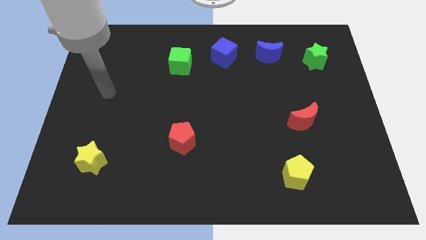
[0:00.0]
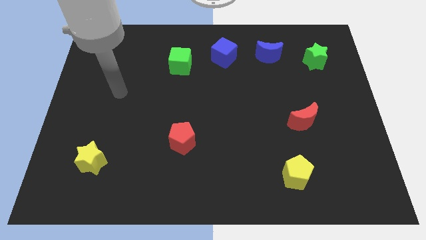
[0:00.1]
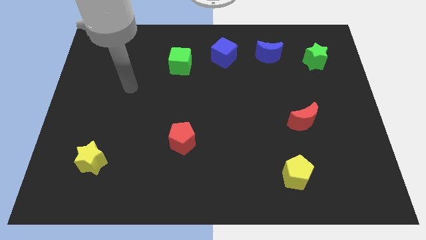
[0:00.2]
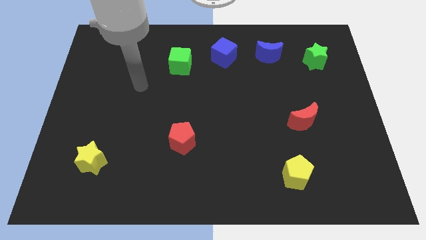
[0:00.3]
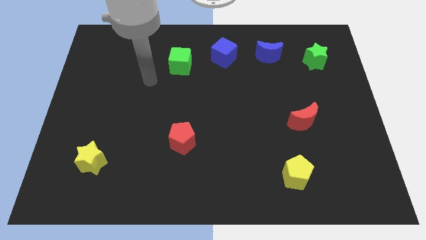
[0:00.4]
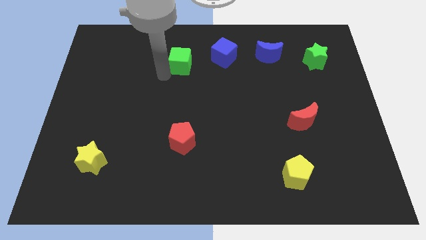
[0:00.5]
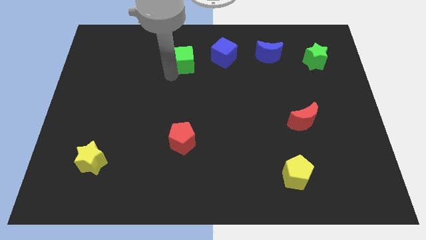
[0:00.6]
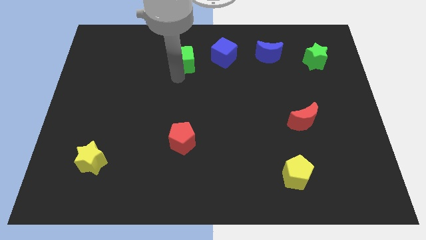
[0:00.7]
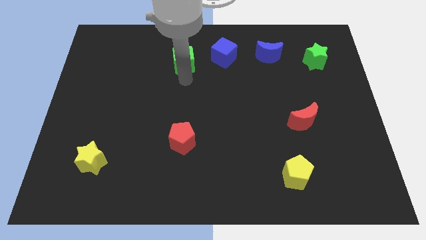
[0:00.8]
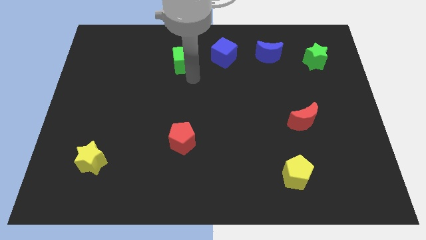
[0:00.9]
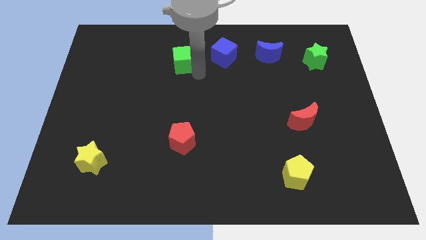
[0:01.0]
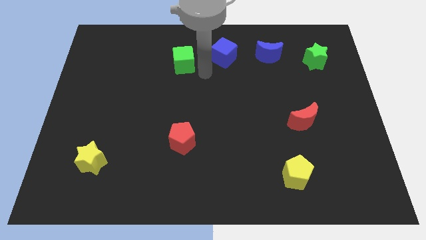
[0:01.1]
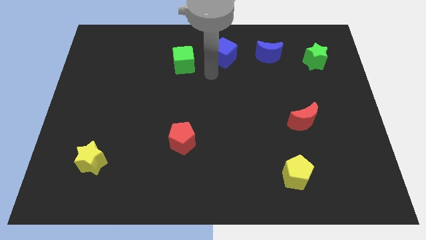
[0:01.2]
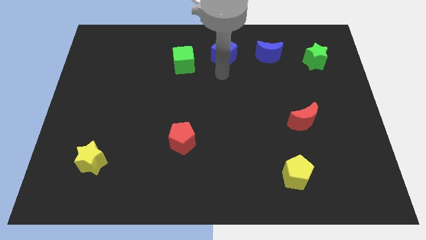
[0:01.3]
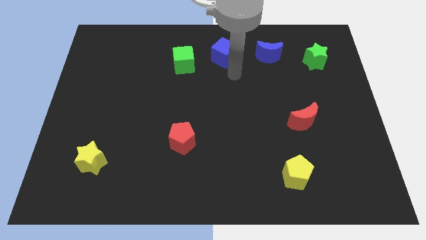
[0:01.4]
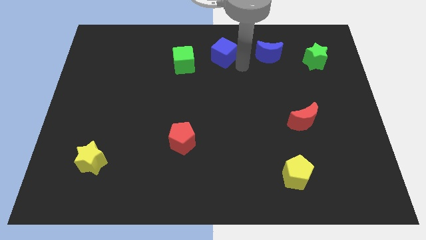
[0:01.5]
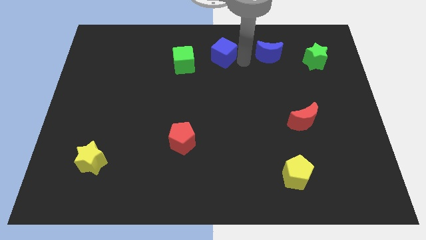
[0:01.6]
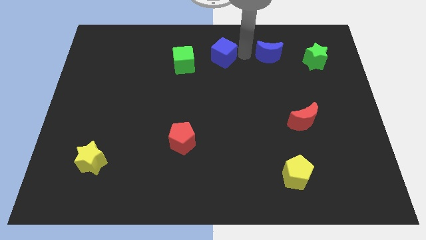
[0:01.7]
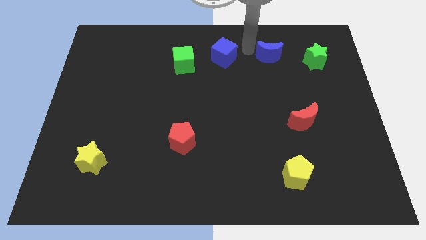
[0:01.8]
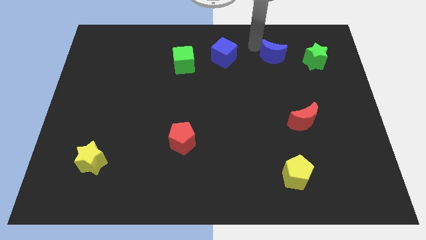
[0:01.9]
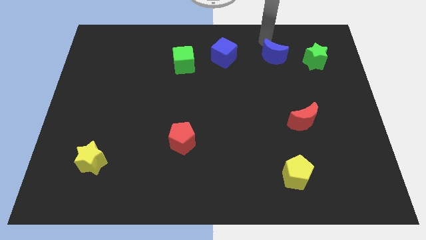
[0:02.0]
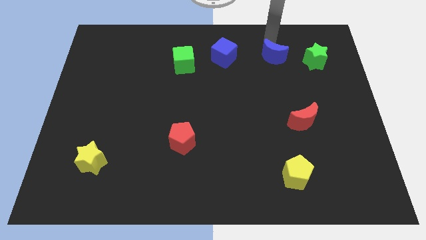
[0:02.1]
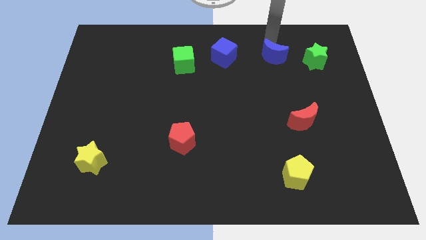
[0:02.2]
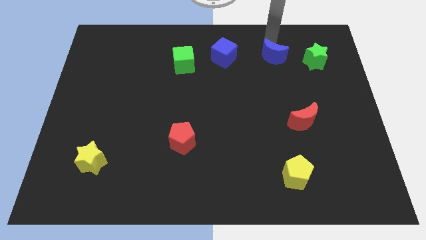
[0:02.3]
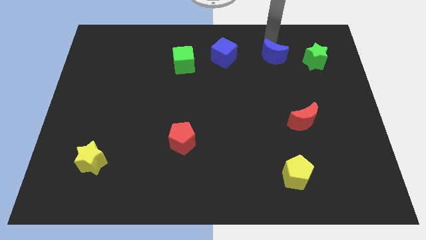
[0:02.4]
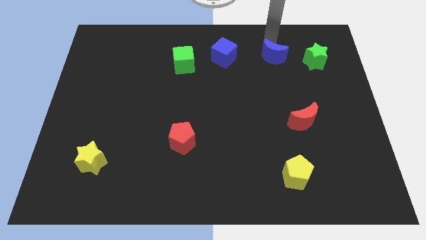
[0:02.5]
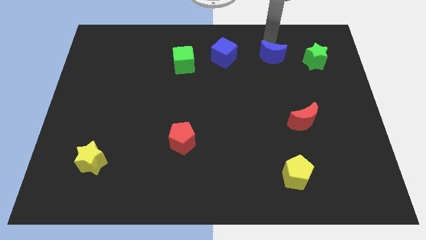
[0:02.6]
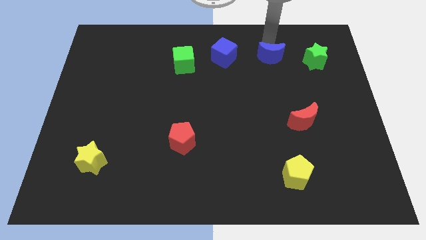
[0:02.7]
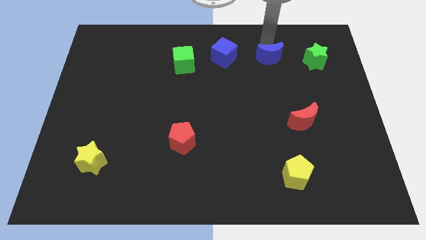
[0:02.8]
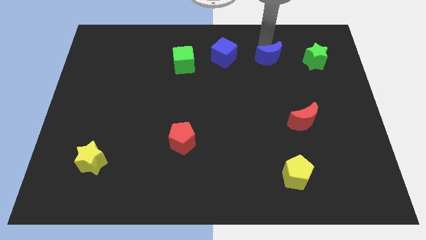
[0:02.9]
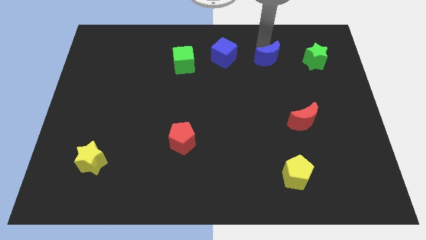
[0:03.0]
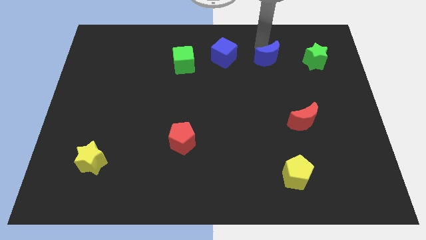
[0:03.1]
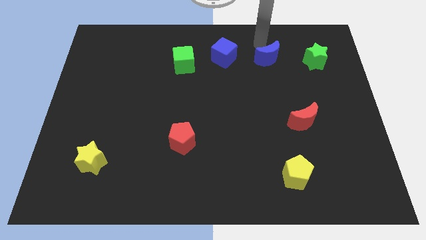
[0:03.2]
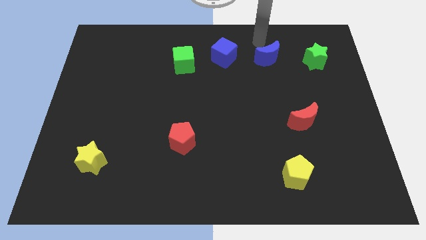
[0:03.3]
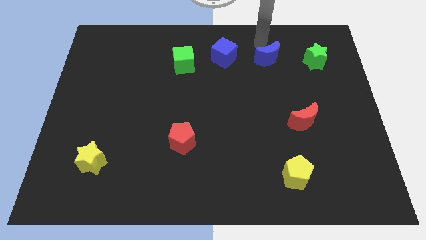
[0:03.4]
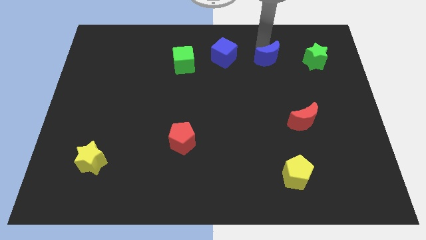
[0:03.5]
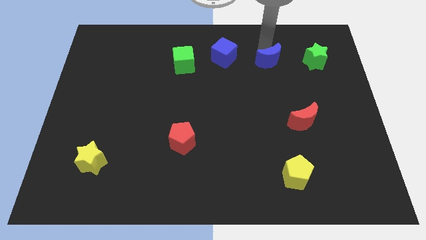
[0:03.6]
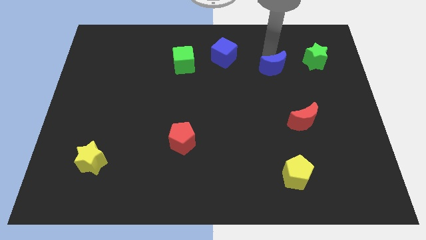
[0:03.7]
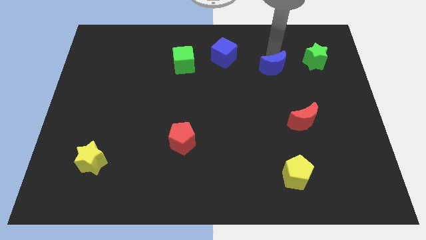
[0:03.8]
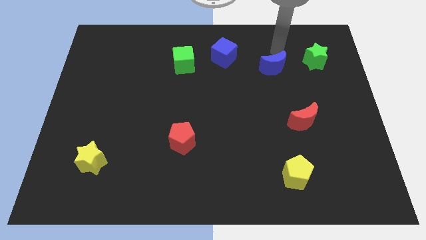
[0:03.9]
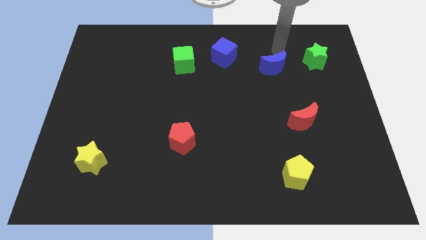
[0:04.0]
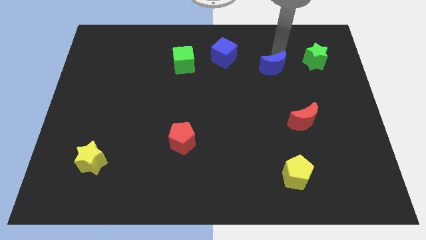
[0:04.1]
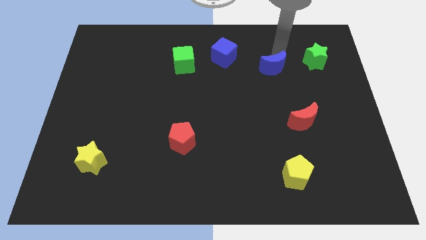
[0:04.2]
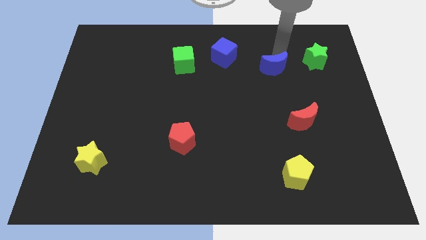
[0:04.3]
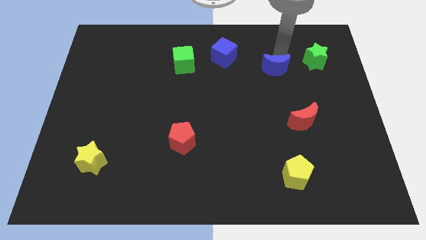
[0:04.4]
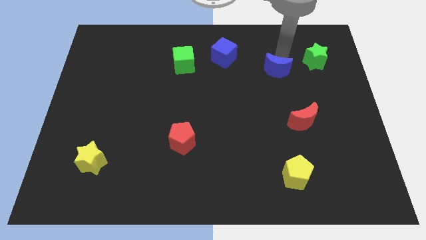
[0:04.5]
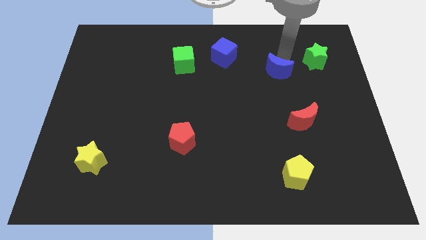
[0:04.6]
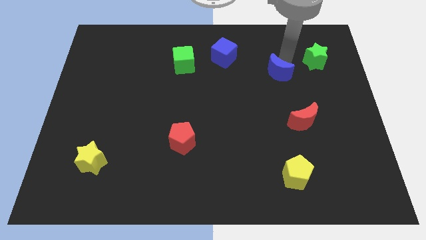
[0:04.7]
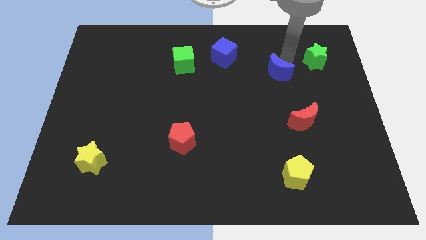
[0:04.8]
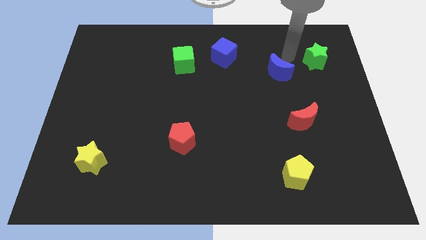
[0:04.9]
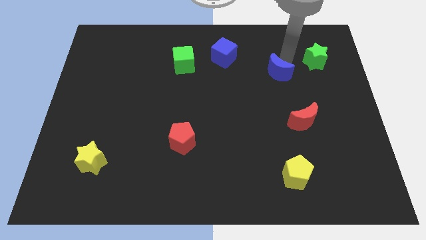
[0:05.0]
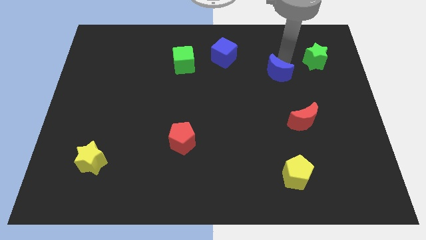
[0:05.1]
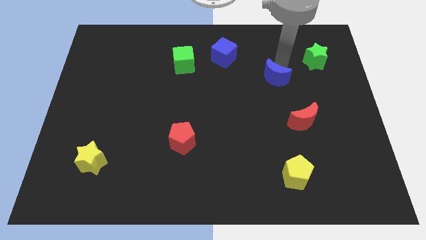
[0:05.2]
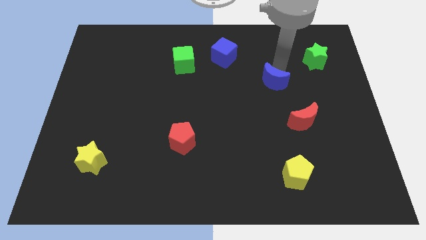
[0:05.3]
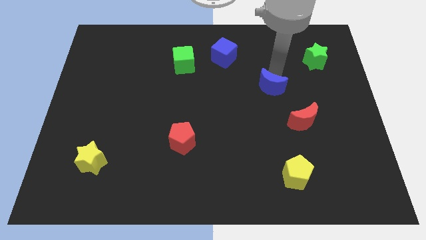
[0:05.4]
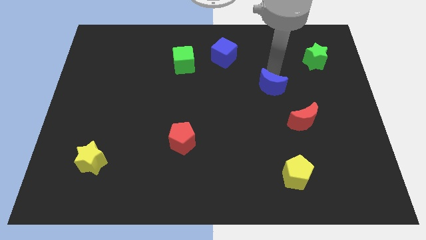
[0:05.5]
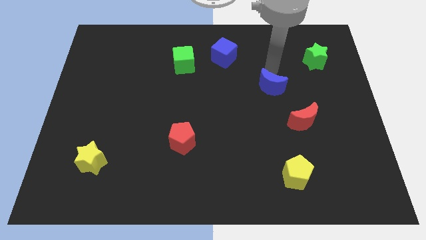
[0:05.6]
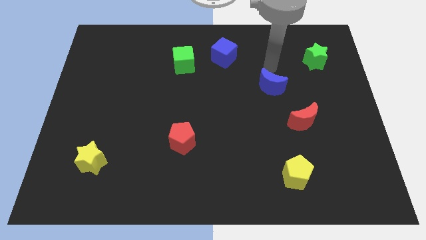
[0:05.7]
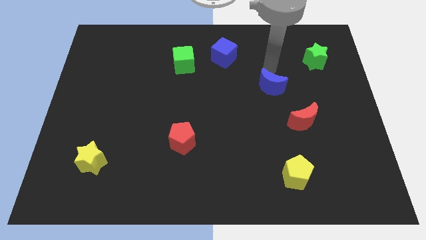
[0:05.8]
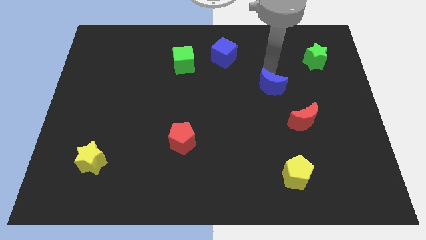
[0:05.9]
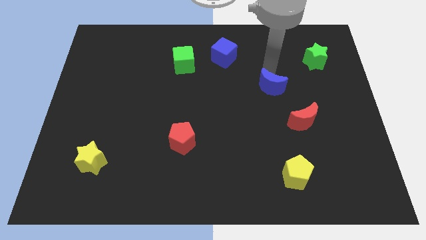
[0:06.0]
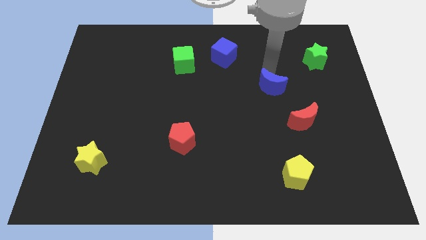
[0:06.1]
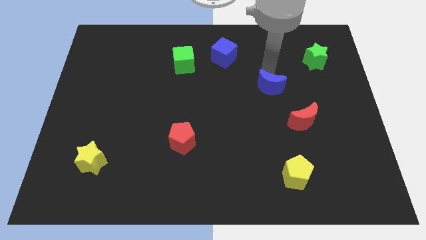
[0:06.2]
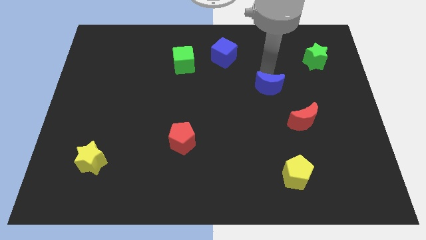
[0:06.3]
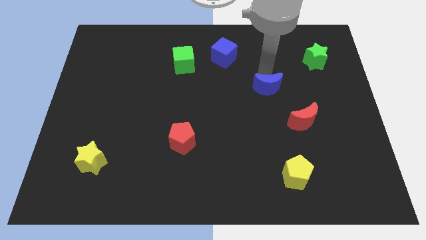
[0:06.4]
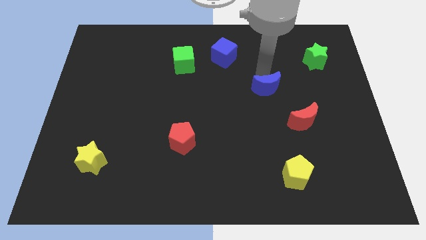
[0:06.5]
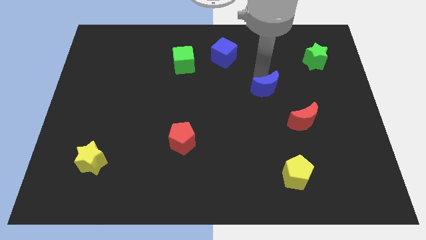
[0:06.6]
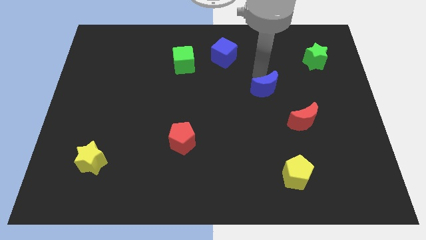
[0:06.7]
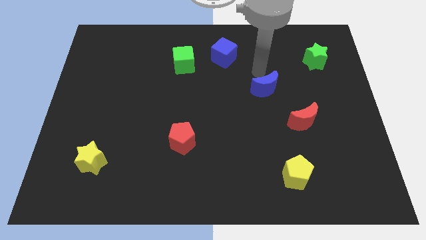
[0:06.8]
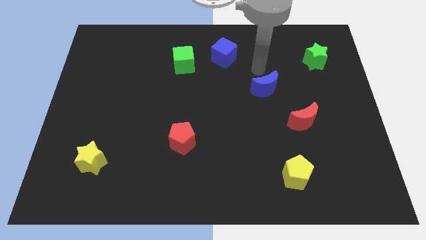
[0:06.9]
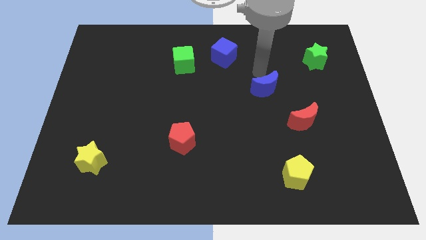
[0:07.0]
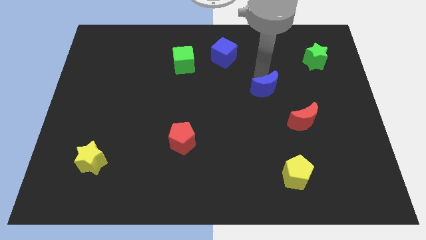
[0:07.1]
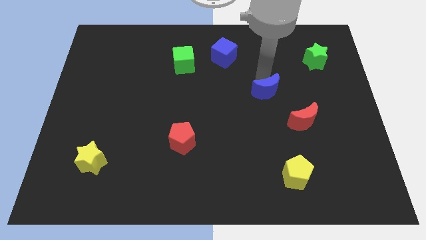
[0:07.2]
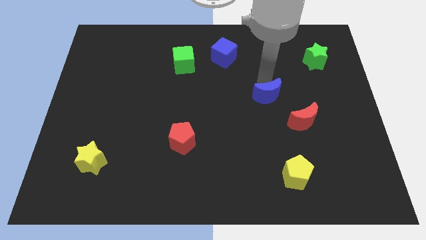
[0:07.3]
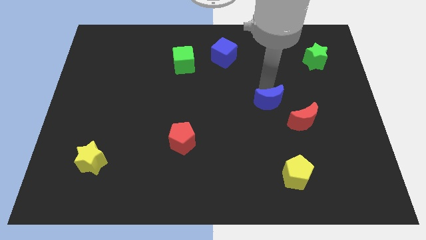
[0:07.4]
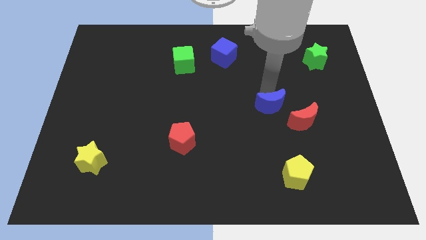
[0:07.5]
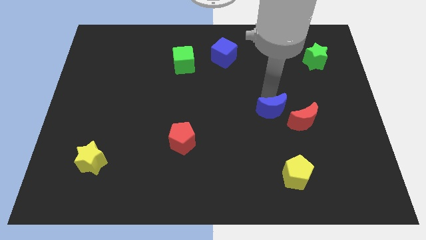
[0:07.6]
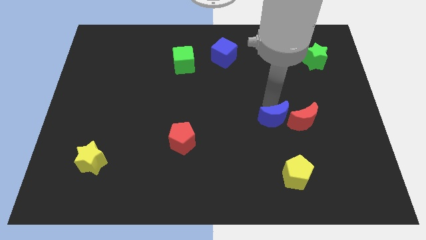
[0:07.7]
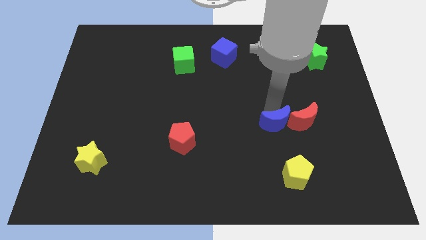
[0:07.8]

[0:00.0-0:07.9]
slide the blue moon to the bottom left side of the red moon
